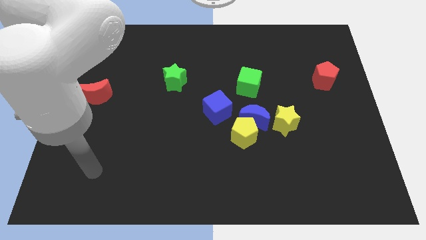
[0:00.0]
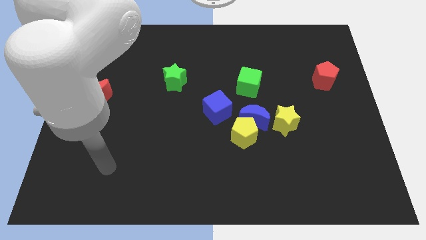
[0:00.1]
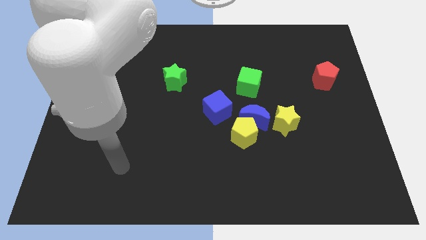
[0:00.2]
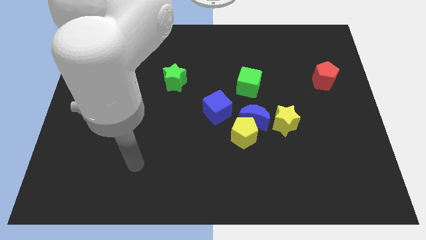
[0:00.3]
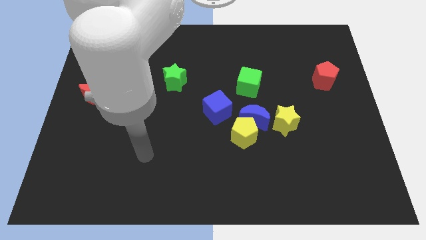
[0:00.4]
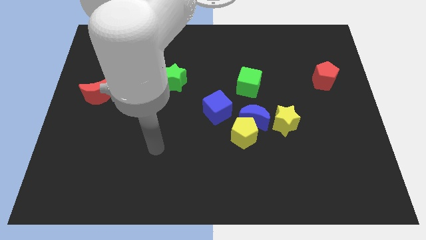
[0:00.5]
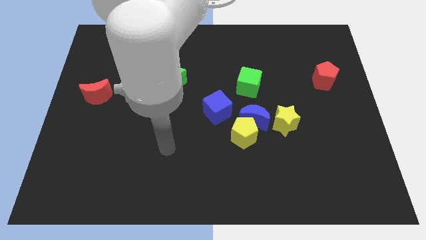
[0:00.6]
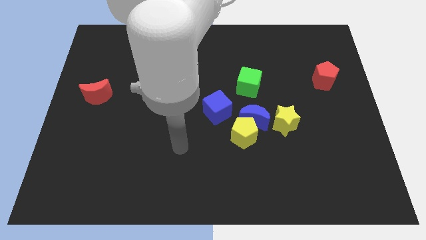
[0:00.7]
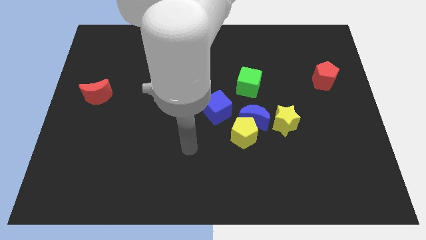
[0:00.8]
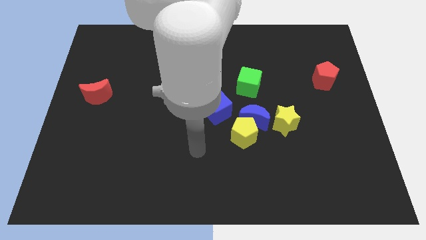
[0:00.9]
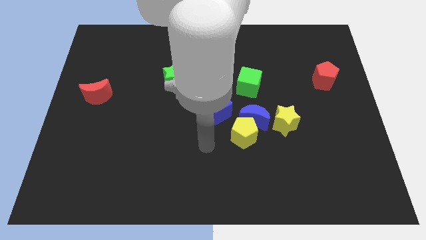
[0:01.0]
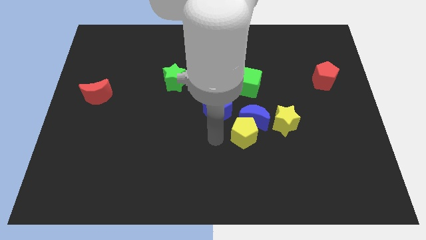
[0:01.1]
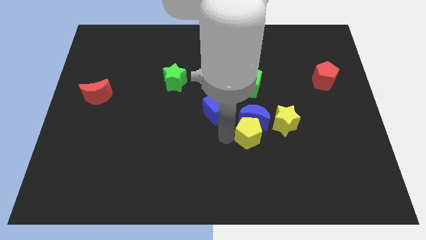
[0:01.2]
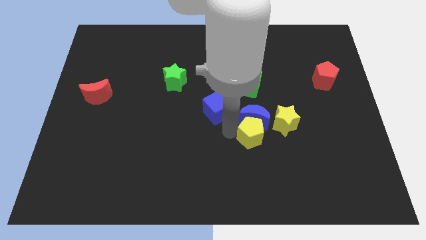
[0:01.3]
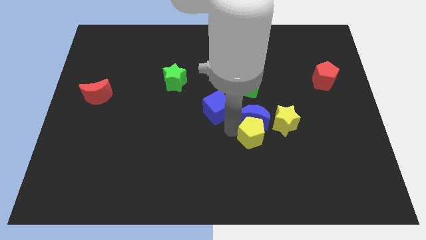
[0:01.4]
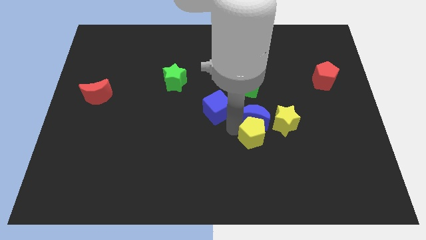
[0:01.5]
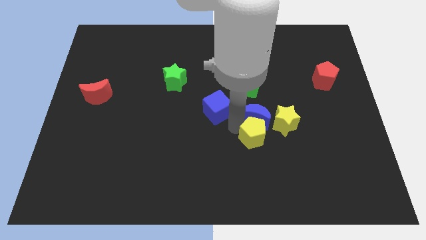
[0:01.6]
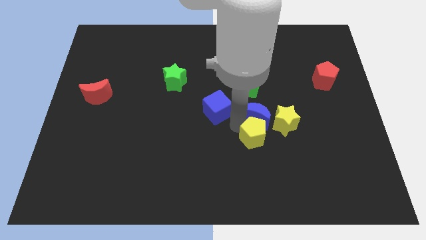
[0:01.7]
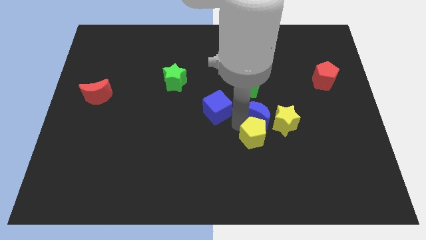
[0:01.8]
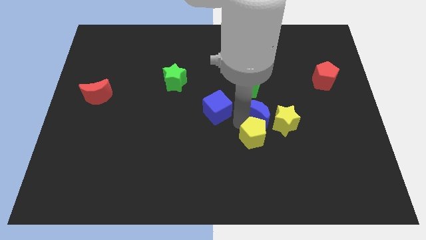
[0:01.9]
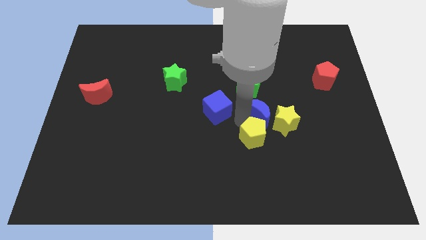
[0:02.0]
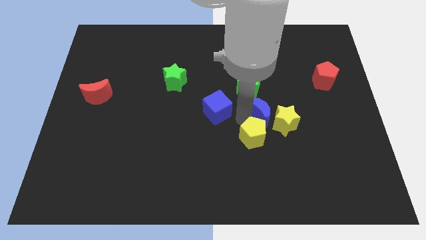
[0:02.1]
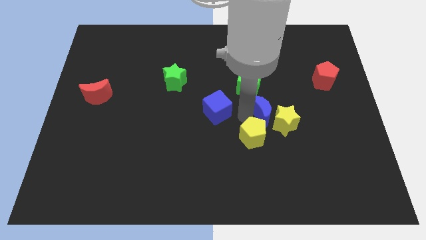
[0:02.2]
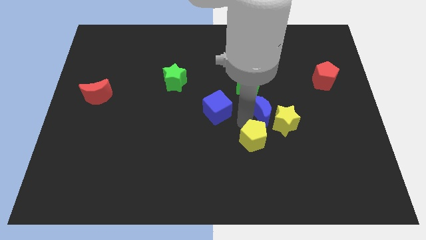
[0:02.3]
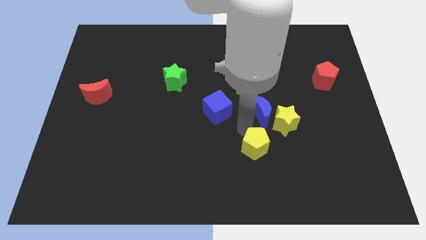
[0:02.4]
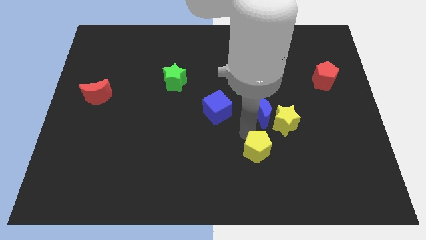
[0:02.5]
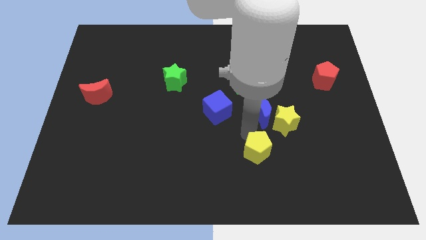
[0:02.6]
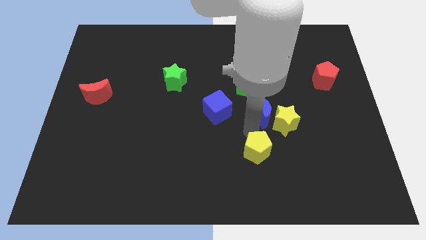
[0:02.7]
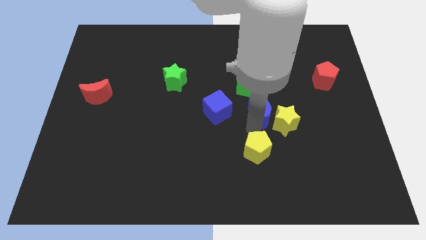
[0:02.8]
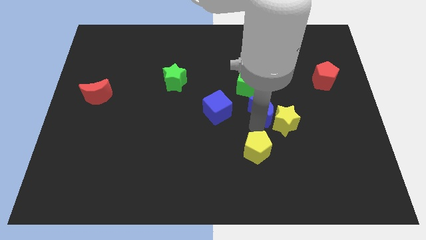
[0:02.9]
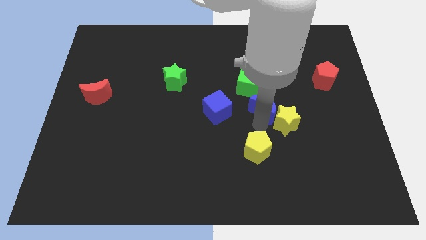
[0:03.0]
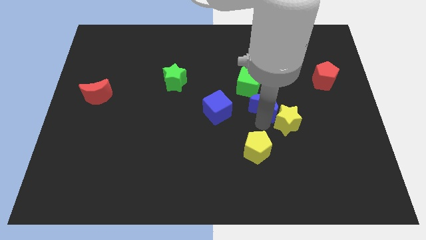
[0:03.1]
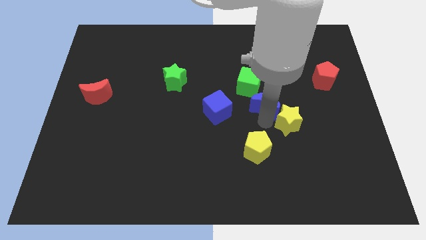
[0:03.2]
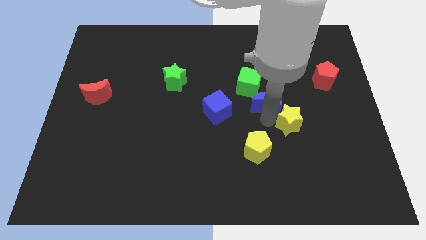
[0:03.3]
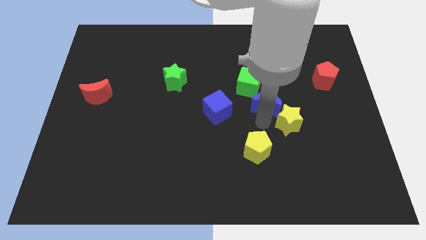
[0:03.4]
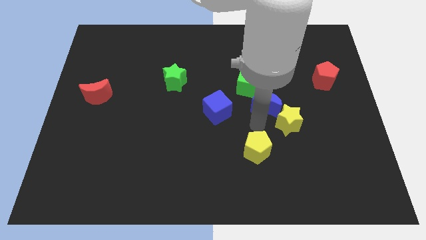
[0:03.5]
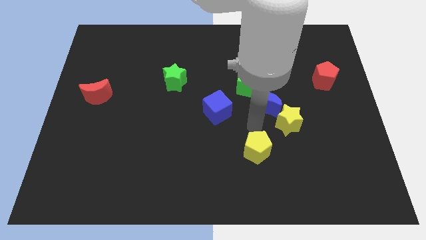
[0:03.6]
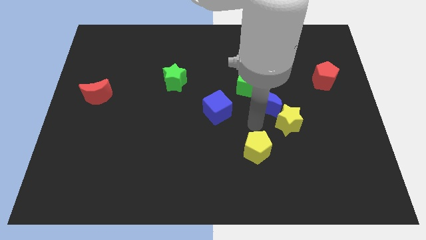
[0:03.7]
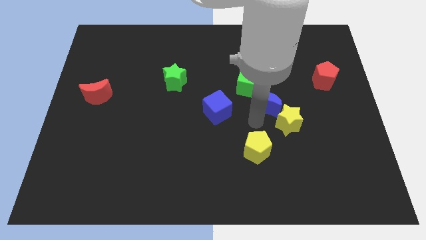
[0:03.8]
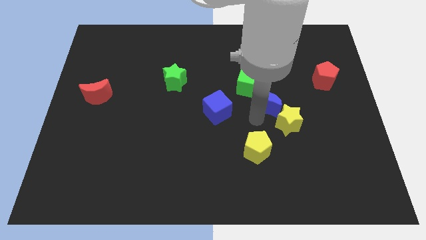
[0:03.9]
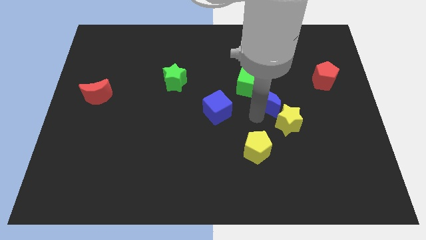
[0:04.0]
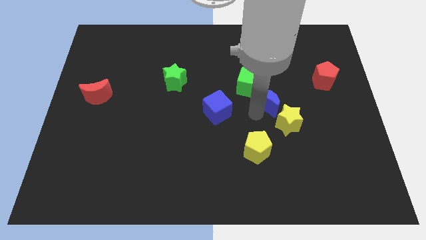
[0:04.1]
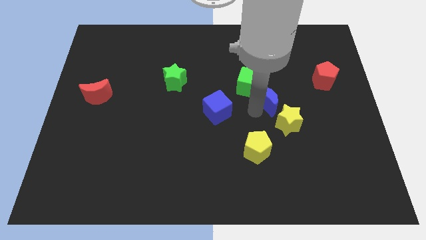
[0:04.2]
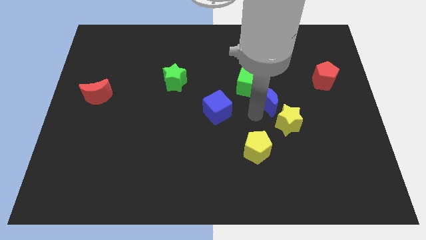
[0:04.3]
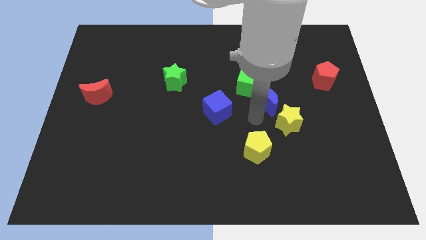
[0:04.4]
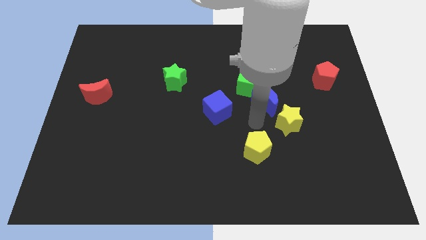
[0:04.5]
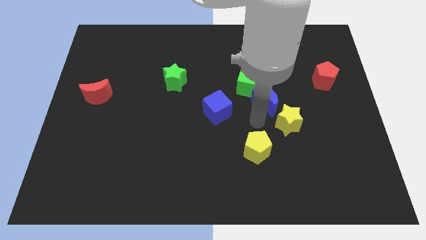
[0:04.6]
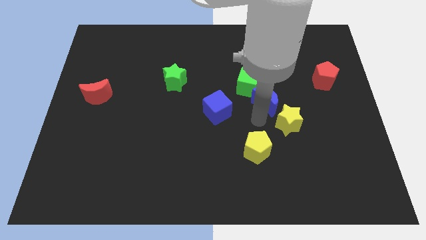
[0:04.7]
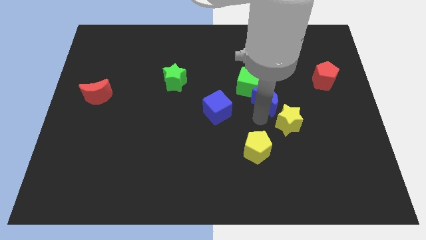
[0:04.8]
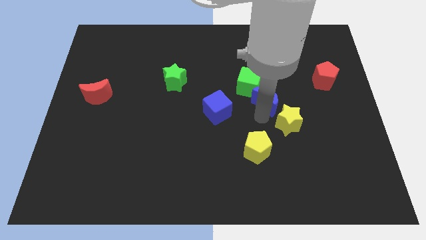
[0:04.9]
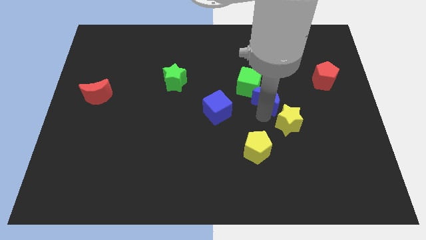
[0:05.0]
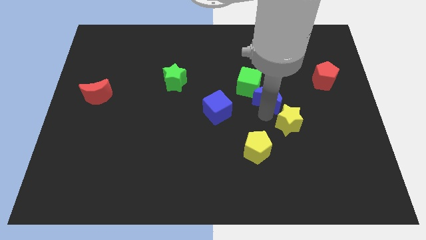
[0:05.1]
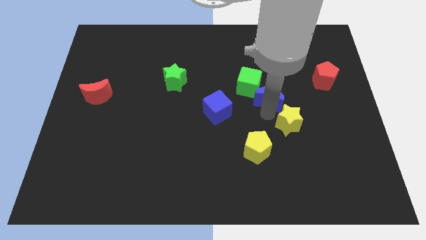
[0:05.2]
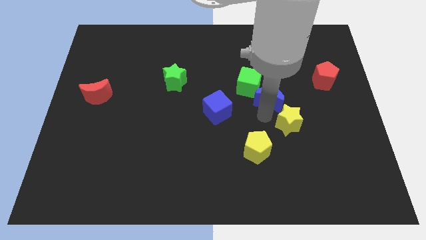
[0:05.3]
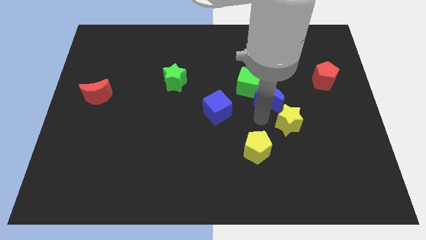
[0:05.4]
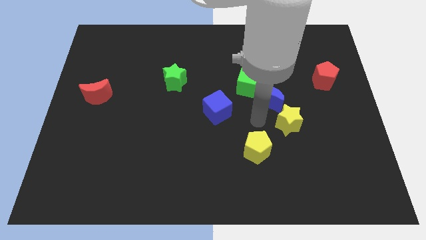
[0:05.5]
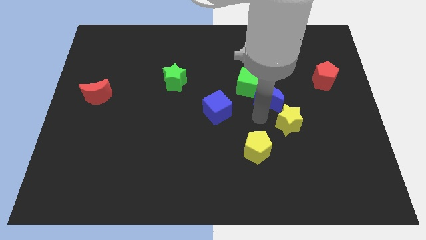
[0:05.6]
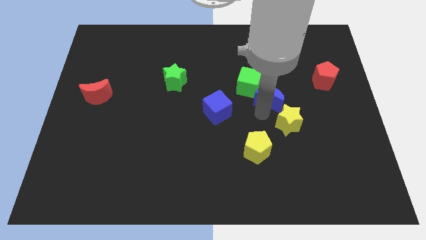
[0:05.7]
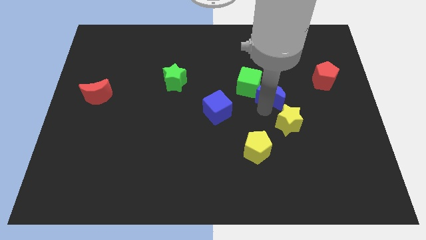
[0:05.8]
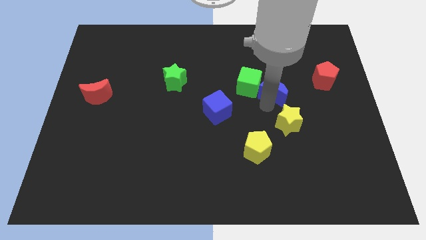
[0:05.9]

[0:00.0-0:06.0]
pull the blue moon apart from the group of blocks

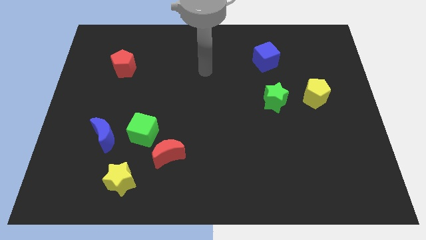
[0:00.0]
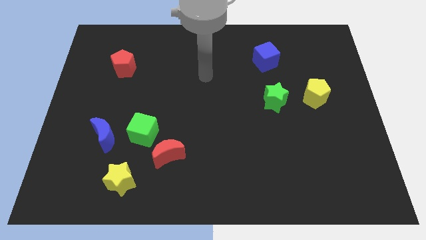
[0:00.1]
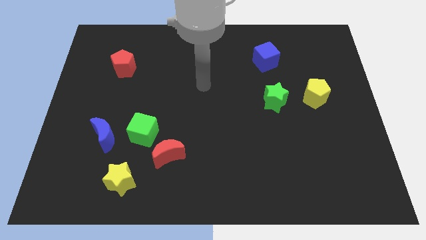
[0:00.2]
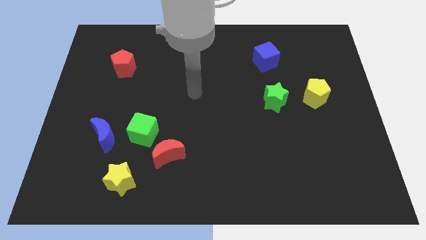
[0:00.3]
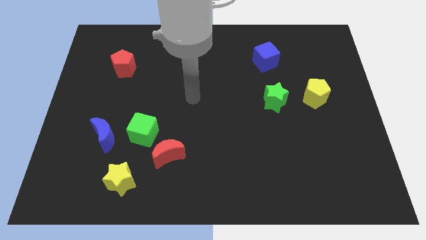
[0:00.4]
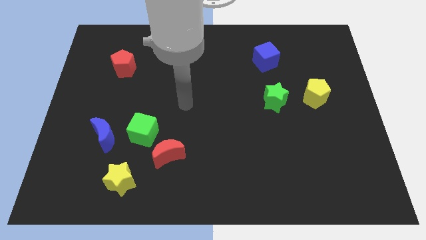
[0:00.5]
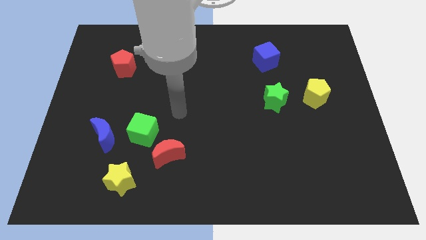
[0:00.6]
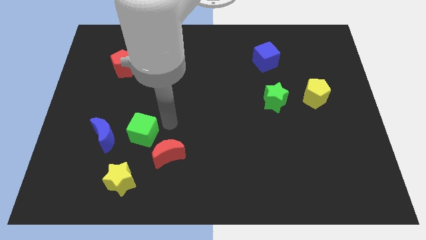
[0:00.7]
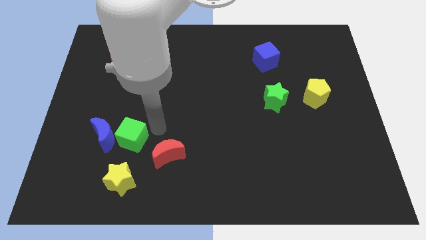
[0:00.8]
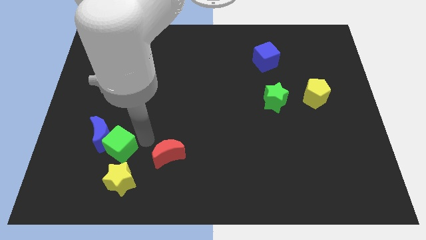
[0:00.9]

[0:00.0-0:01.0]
pull the red moon apart from the green cube

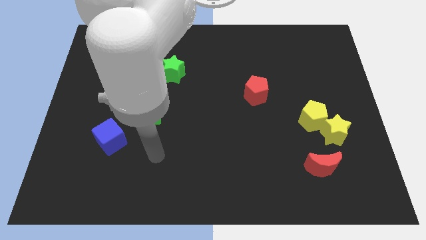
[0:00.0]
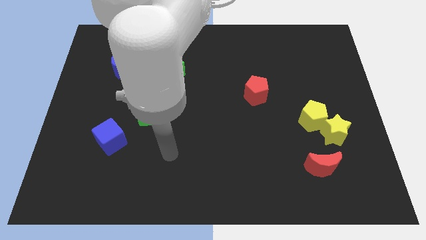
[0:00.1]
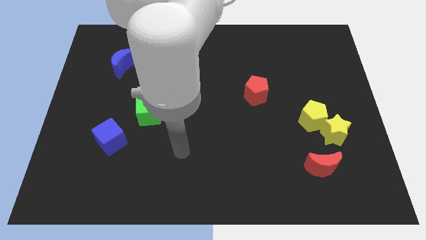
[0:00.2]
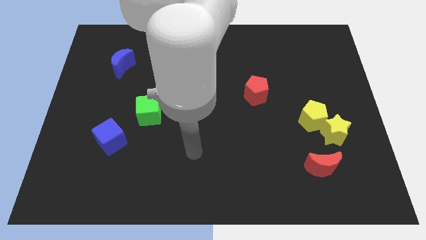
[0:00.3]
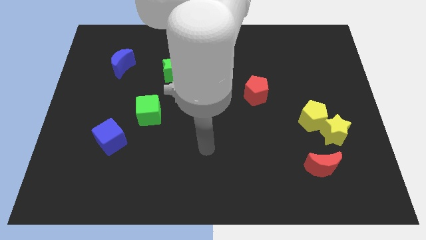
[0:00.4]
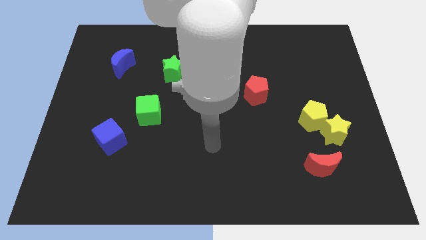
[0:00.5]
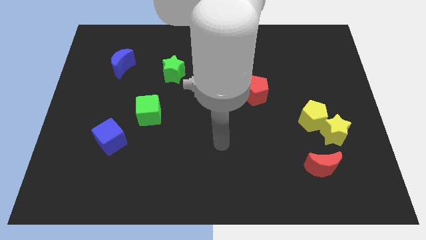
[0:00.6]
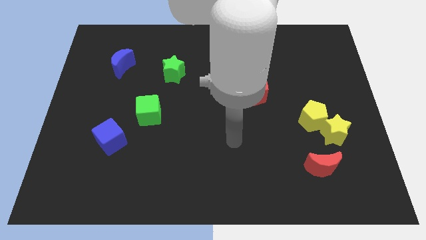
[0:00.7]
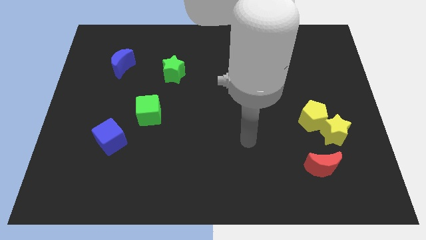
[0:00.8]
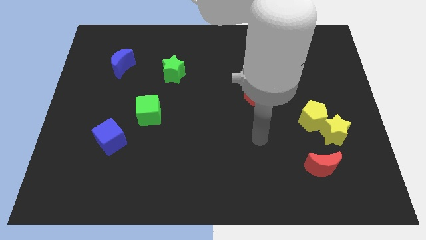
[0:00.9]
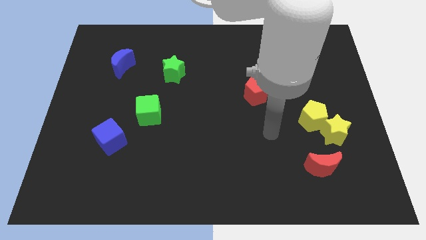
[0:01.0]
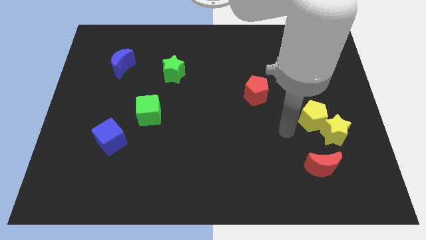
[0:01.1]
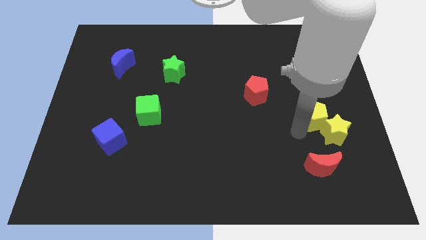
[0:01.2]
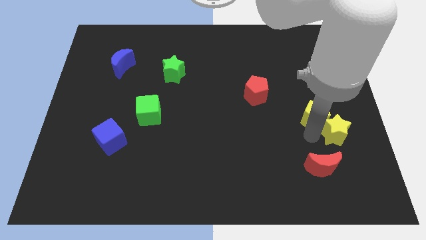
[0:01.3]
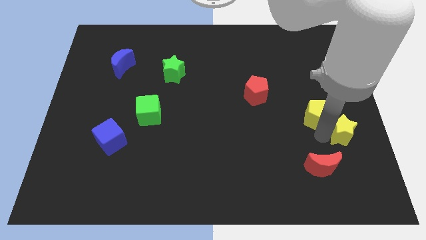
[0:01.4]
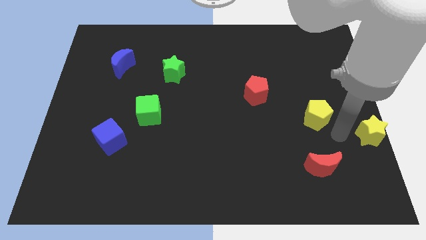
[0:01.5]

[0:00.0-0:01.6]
pull the yellow pentagon apart from the yellow star

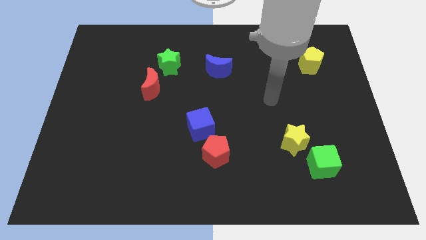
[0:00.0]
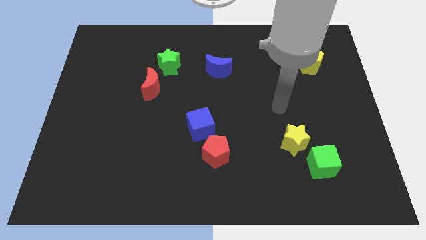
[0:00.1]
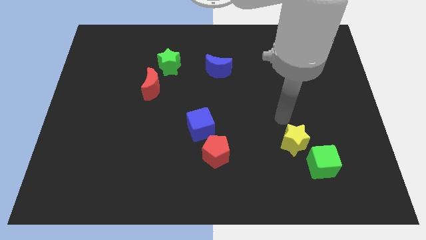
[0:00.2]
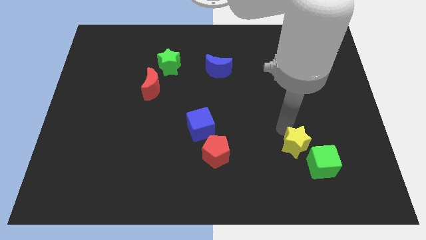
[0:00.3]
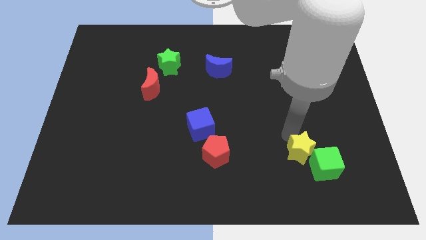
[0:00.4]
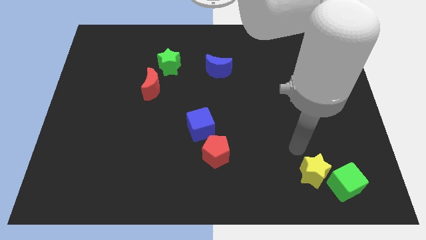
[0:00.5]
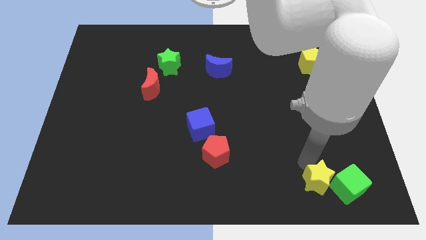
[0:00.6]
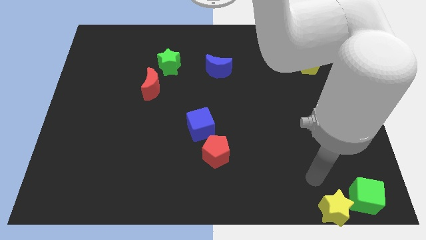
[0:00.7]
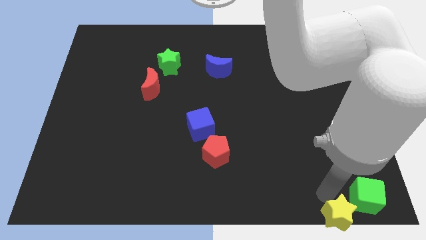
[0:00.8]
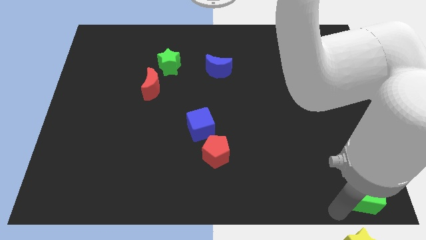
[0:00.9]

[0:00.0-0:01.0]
pull the green cube apart from the yellow star
